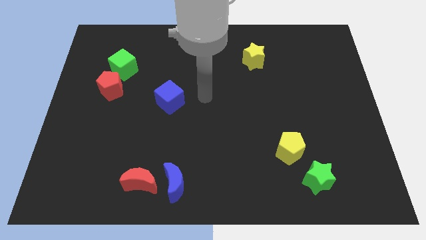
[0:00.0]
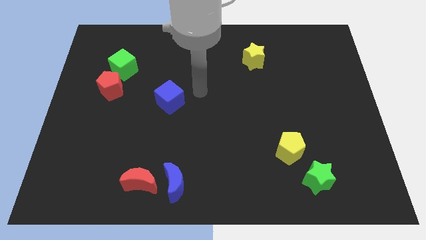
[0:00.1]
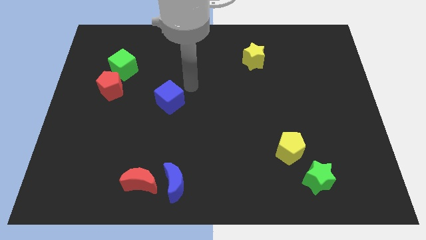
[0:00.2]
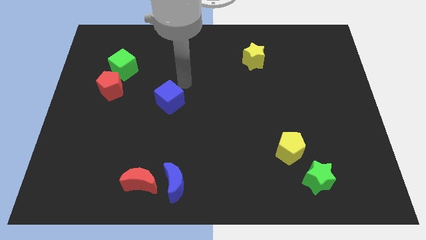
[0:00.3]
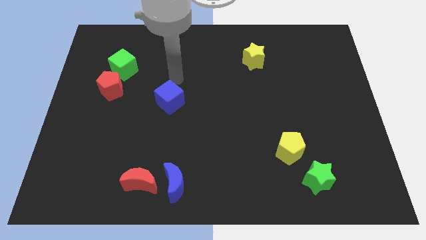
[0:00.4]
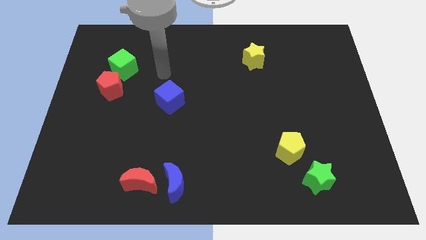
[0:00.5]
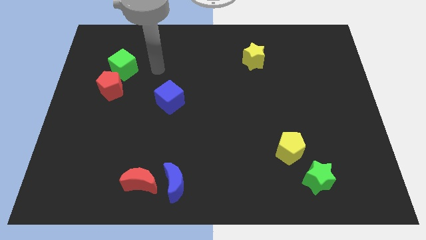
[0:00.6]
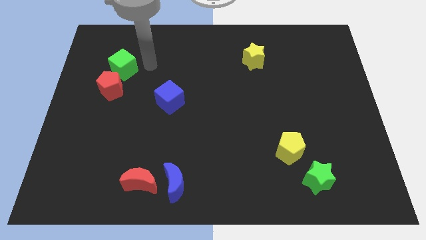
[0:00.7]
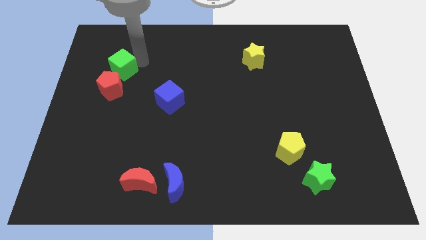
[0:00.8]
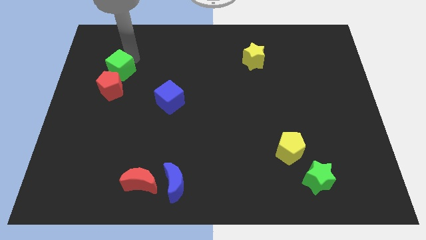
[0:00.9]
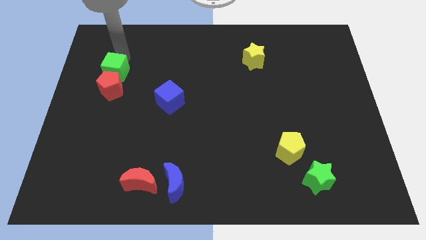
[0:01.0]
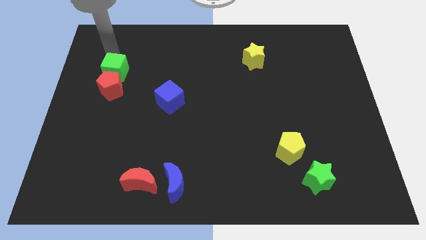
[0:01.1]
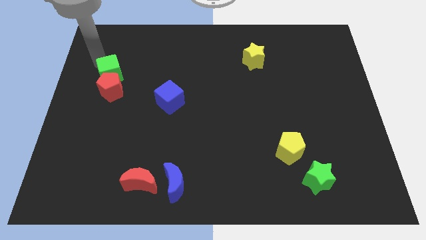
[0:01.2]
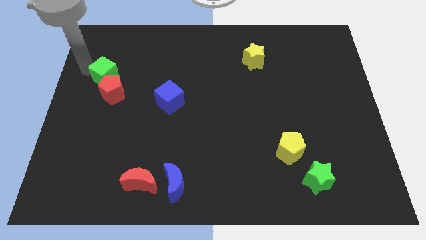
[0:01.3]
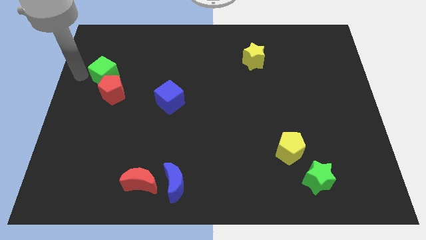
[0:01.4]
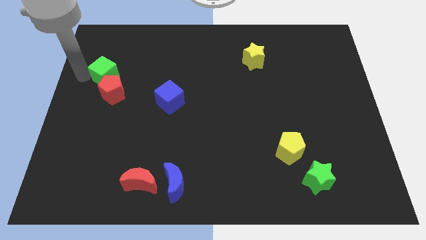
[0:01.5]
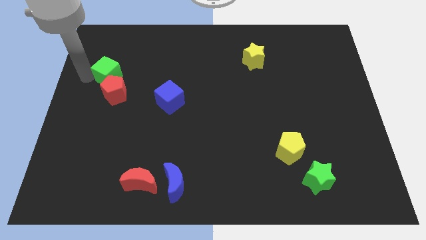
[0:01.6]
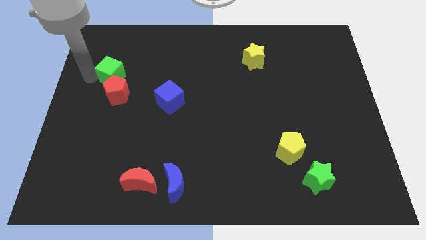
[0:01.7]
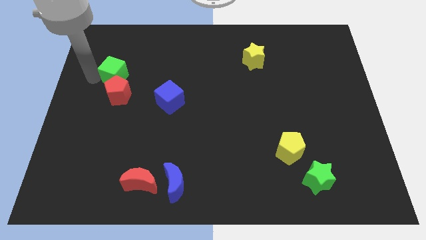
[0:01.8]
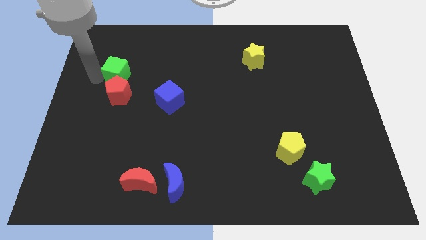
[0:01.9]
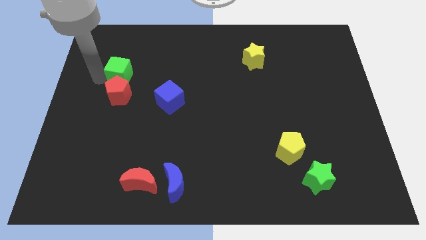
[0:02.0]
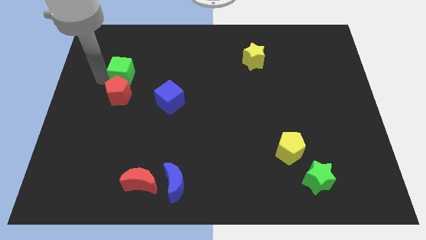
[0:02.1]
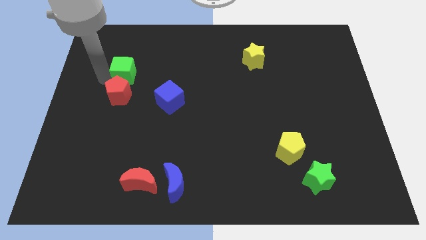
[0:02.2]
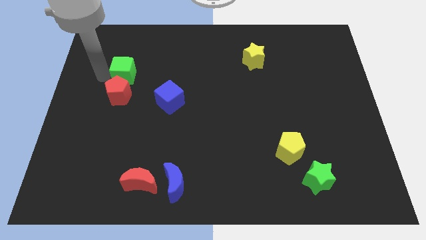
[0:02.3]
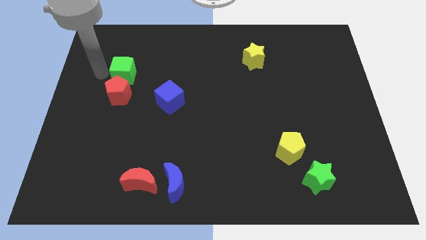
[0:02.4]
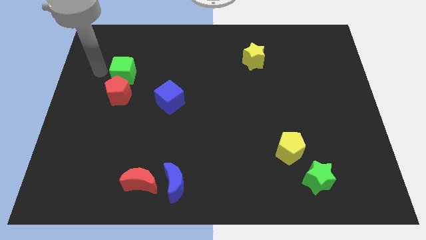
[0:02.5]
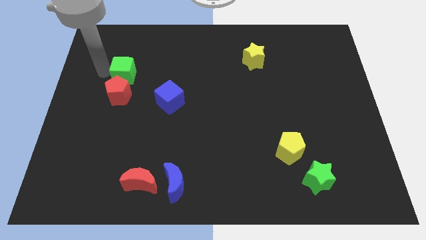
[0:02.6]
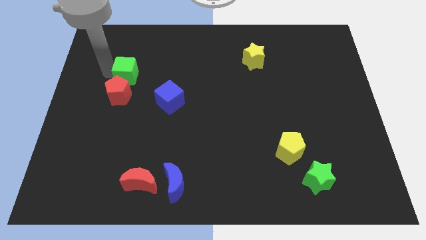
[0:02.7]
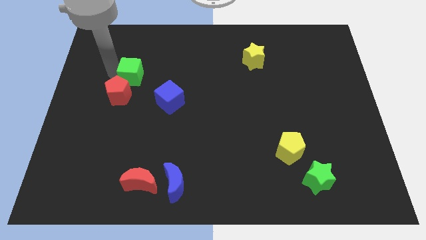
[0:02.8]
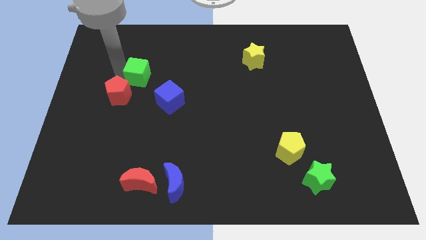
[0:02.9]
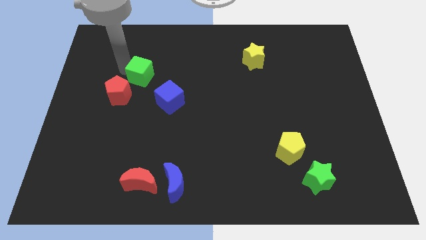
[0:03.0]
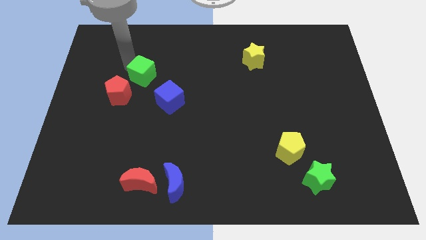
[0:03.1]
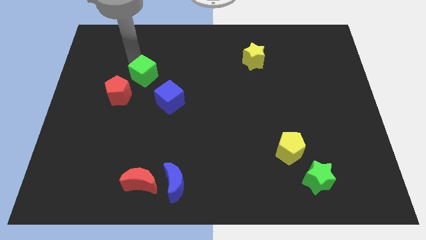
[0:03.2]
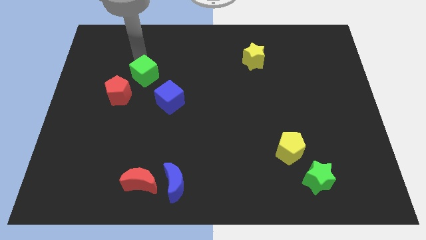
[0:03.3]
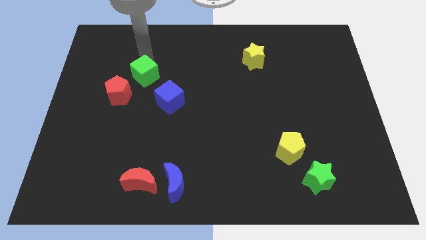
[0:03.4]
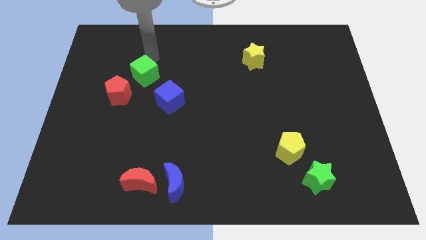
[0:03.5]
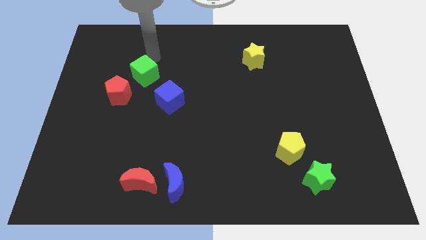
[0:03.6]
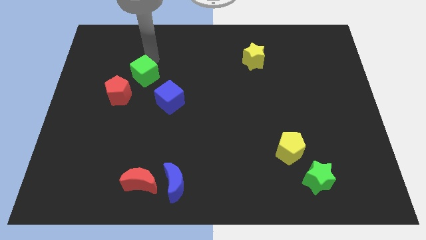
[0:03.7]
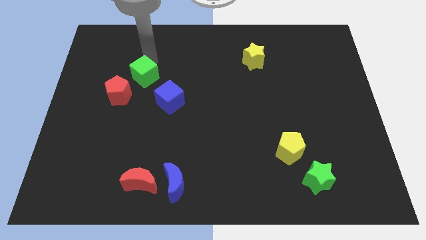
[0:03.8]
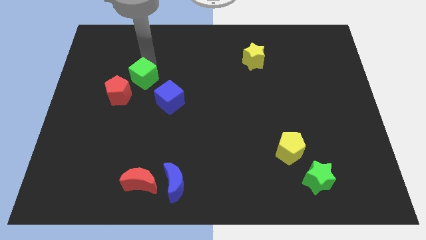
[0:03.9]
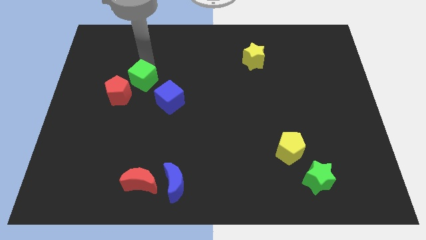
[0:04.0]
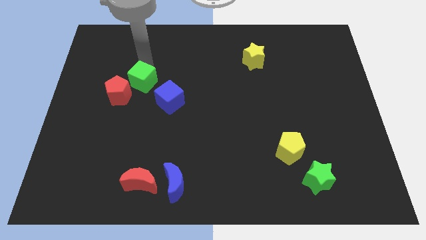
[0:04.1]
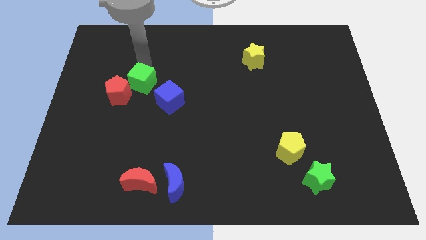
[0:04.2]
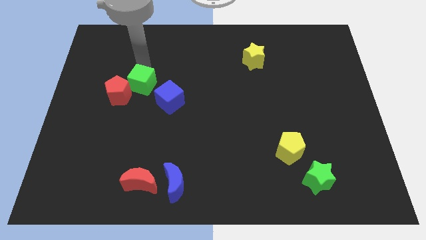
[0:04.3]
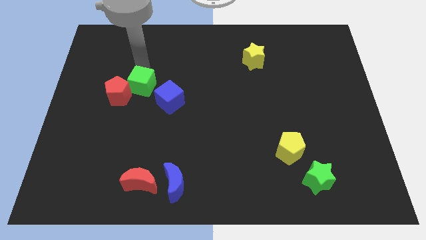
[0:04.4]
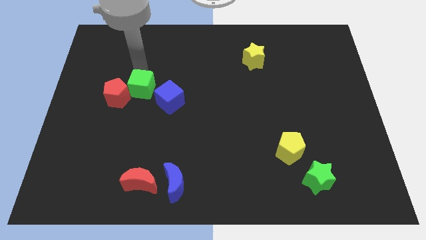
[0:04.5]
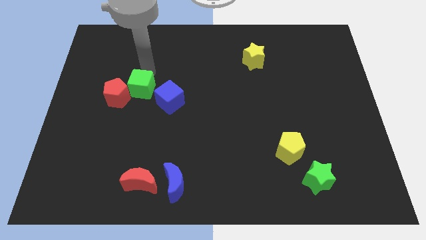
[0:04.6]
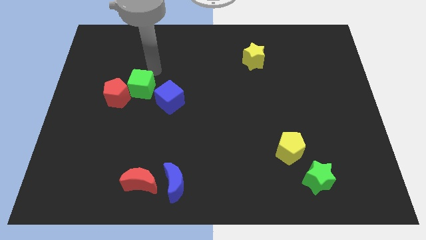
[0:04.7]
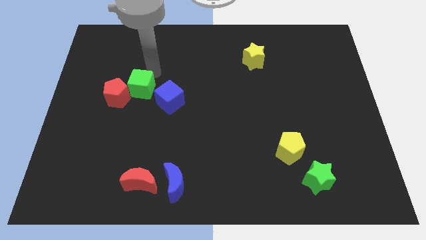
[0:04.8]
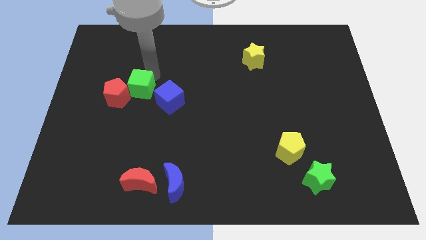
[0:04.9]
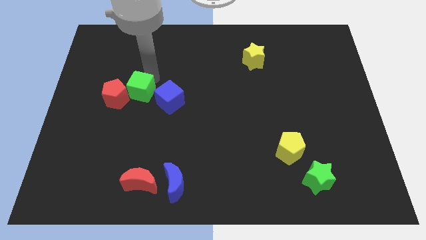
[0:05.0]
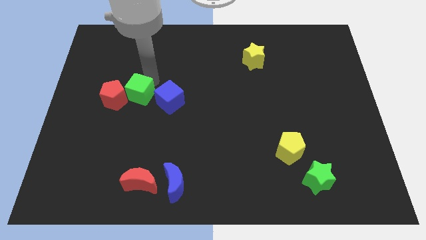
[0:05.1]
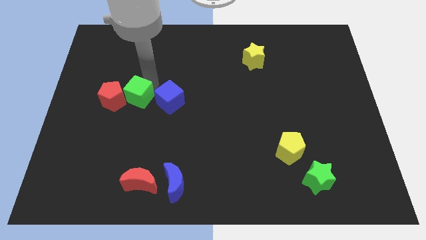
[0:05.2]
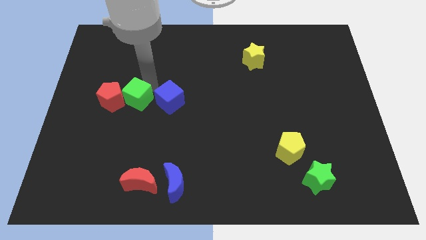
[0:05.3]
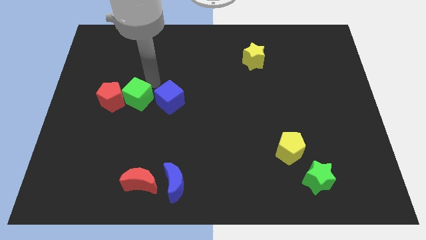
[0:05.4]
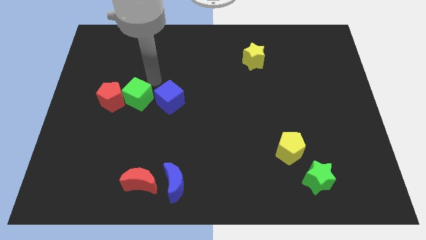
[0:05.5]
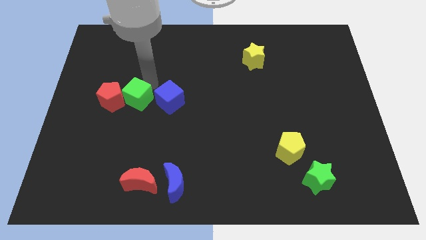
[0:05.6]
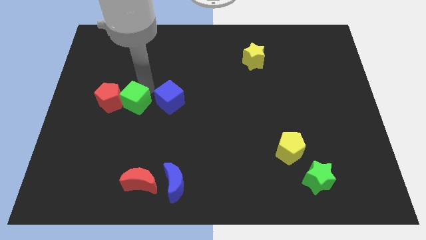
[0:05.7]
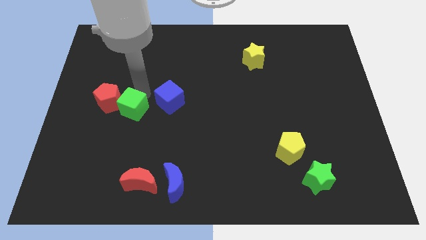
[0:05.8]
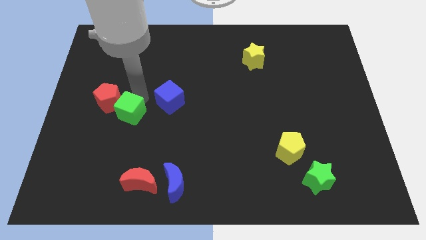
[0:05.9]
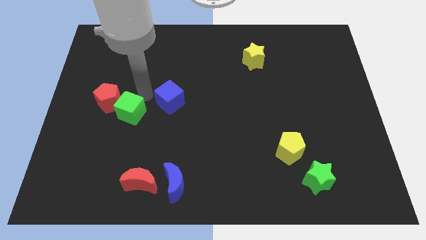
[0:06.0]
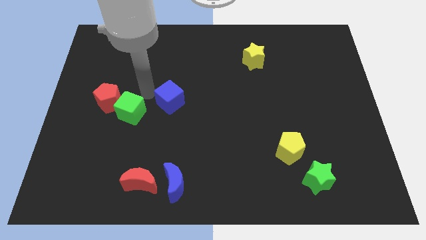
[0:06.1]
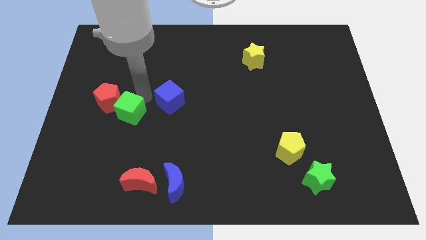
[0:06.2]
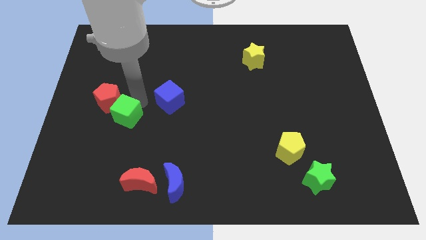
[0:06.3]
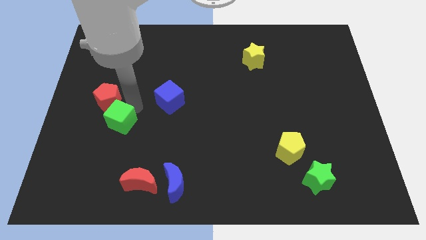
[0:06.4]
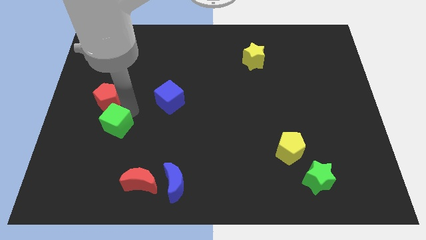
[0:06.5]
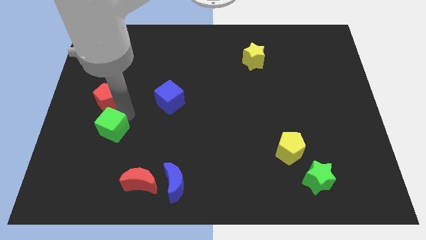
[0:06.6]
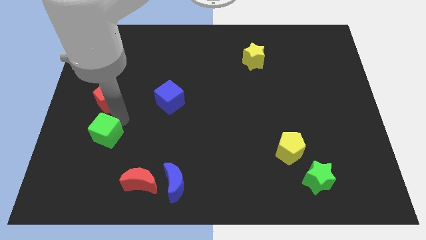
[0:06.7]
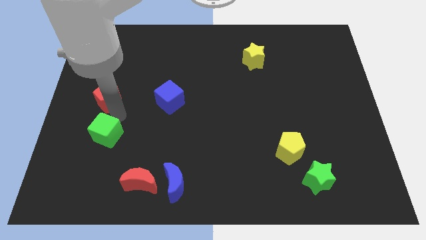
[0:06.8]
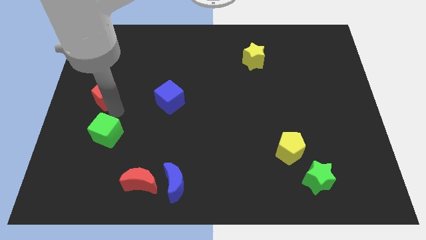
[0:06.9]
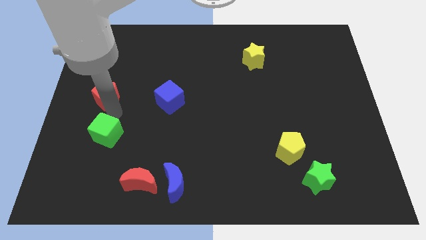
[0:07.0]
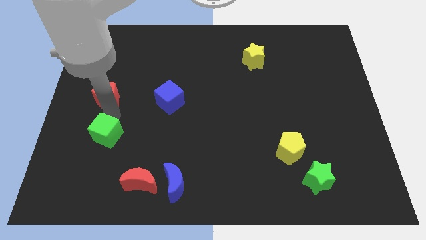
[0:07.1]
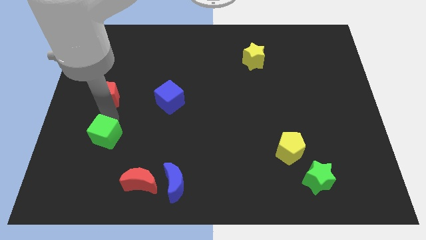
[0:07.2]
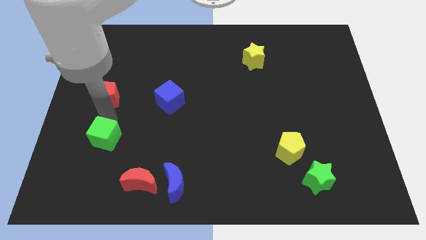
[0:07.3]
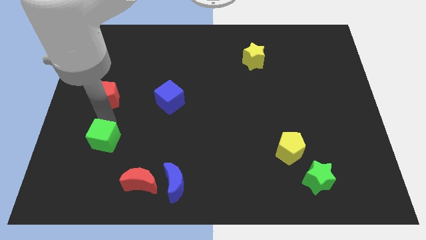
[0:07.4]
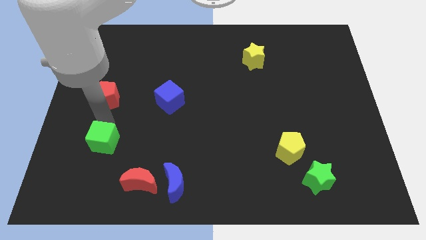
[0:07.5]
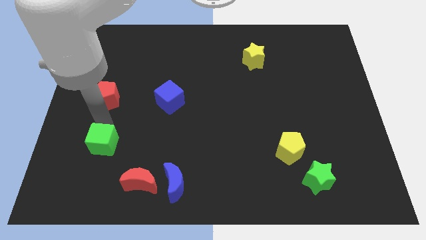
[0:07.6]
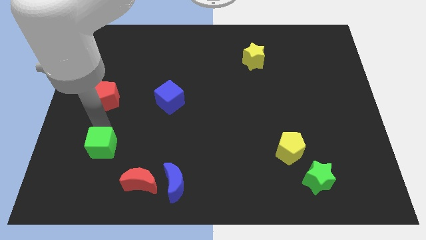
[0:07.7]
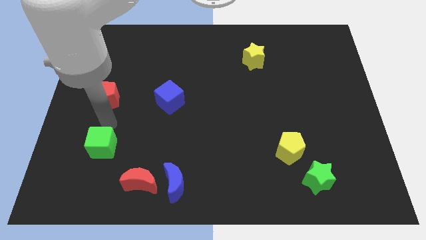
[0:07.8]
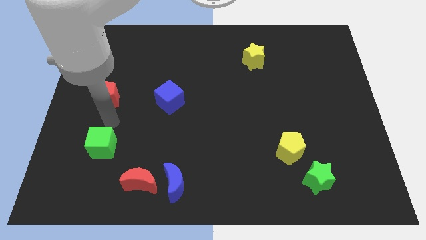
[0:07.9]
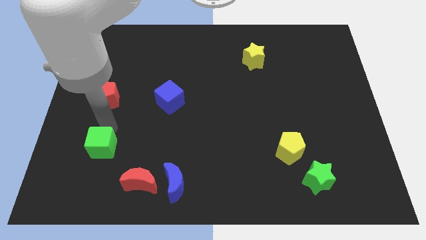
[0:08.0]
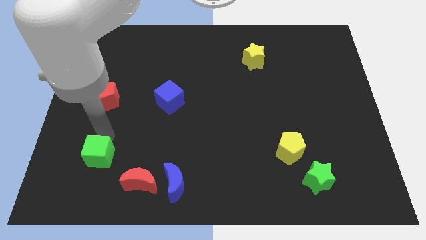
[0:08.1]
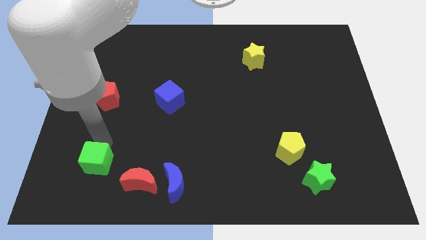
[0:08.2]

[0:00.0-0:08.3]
move the green cube to the left side of the red moon

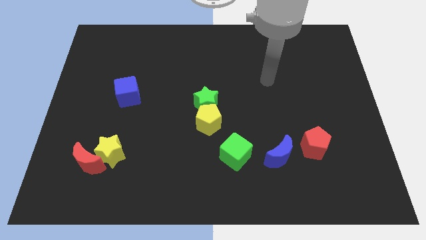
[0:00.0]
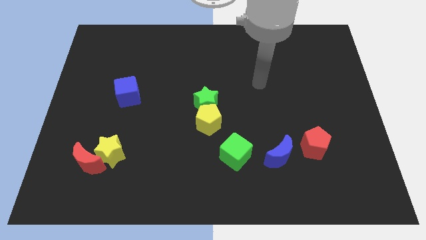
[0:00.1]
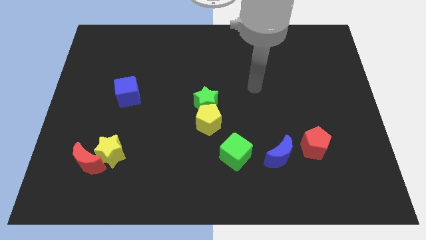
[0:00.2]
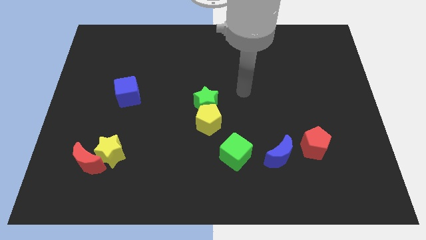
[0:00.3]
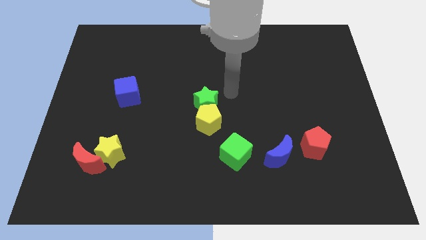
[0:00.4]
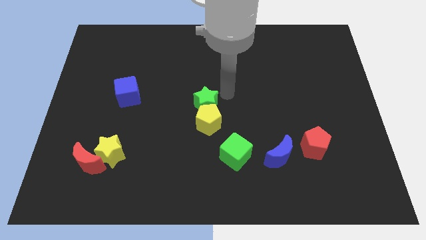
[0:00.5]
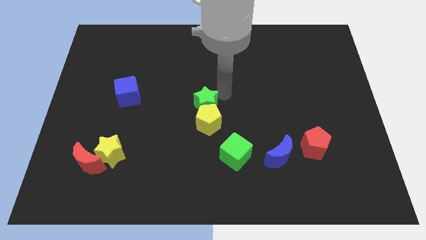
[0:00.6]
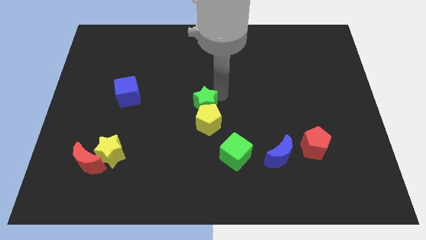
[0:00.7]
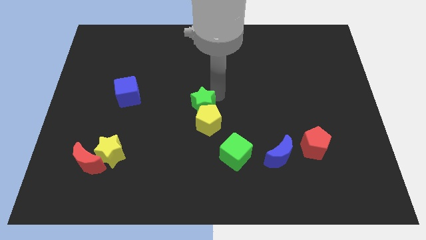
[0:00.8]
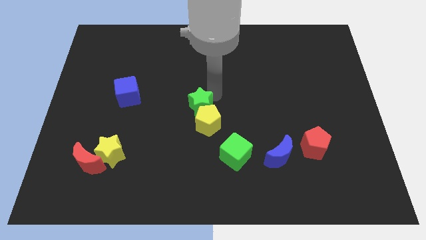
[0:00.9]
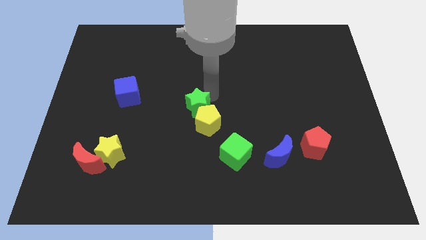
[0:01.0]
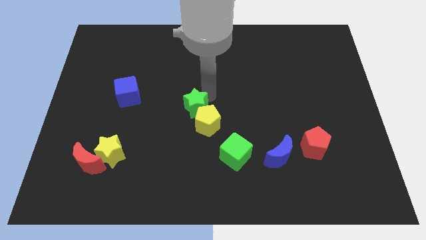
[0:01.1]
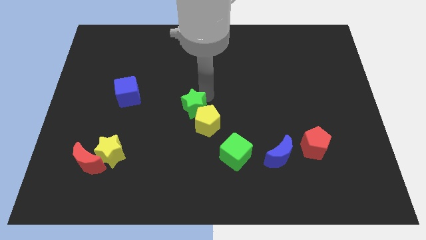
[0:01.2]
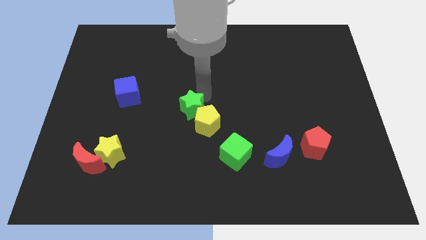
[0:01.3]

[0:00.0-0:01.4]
move the green star to the left side of the yellow pentagon
